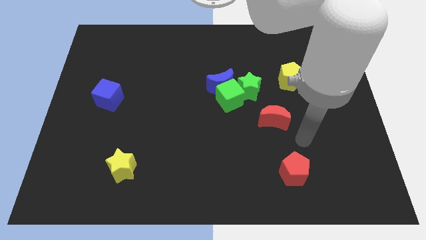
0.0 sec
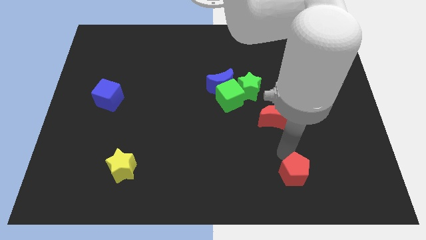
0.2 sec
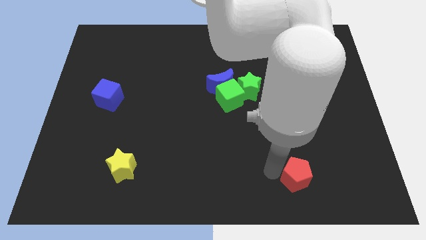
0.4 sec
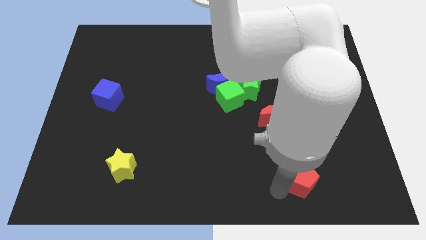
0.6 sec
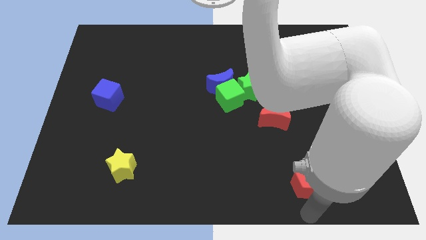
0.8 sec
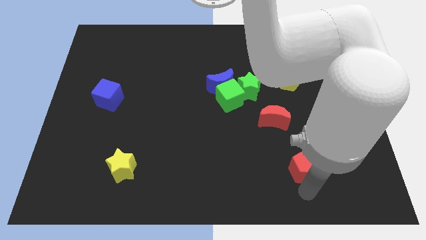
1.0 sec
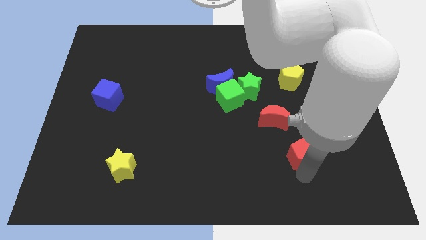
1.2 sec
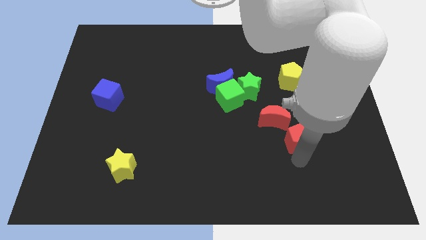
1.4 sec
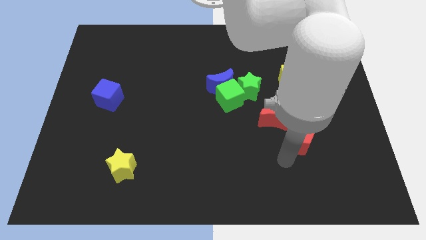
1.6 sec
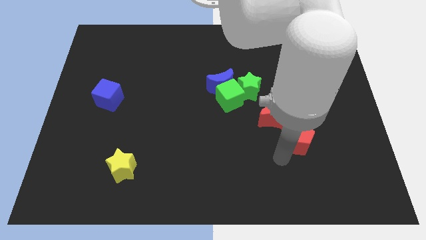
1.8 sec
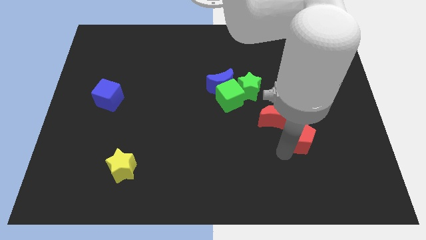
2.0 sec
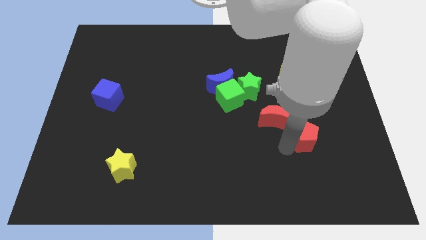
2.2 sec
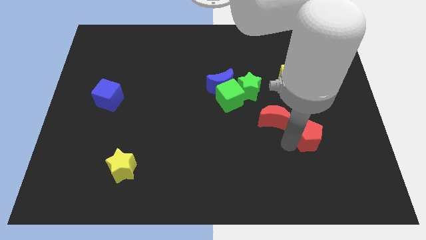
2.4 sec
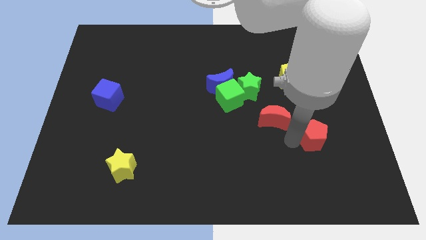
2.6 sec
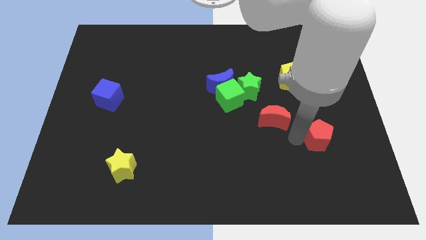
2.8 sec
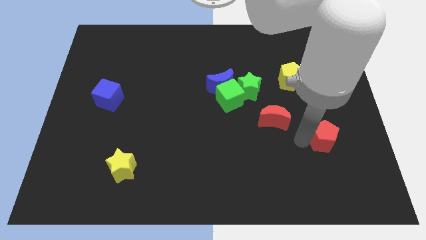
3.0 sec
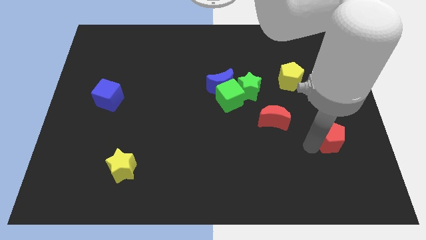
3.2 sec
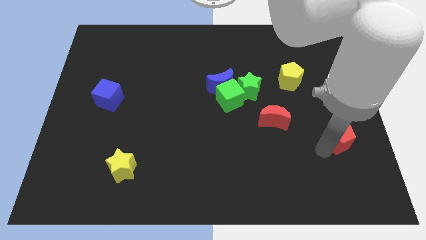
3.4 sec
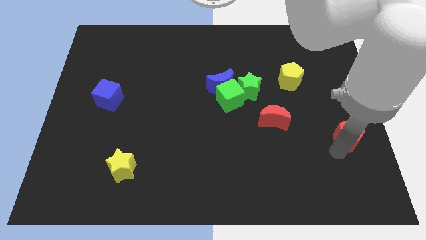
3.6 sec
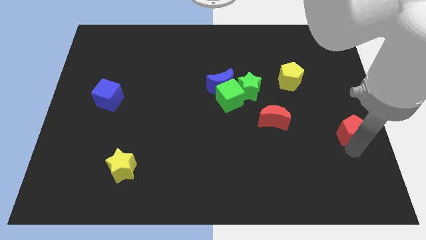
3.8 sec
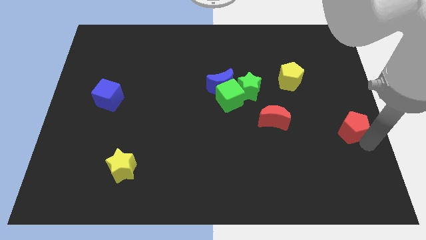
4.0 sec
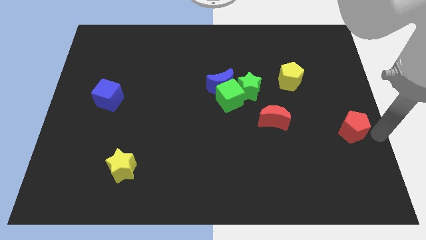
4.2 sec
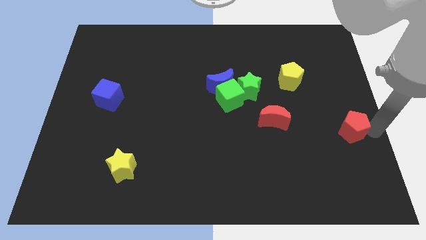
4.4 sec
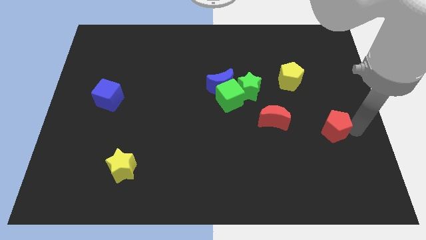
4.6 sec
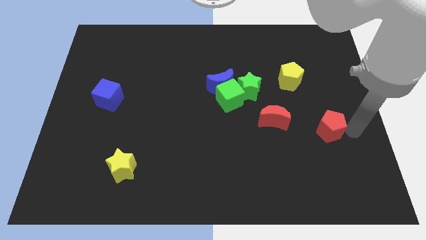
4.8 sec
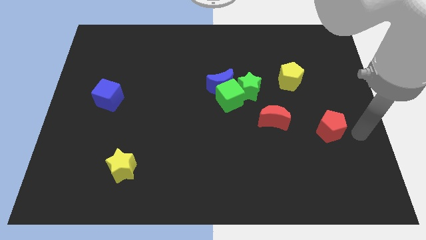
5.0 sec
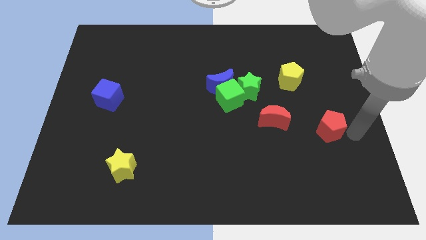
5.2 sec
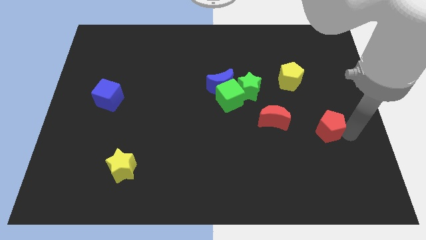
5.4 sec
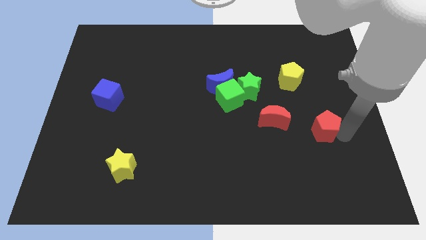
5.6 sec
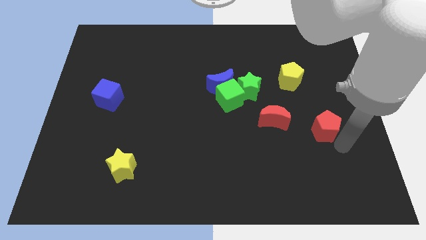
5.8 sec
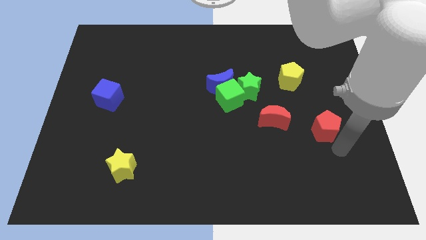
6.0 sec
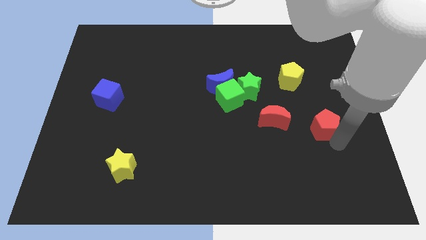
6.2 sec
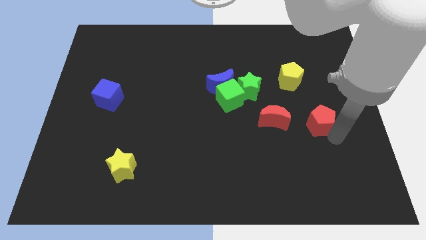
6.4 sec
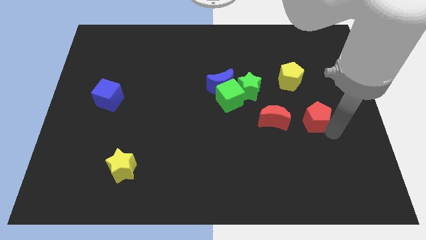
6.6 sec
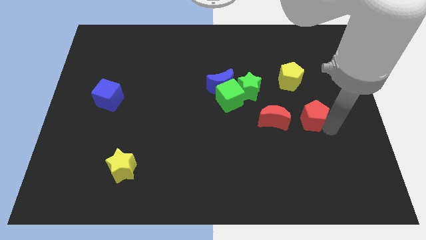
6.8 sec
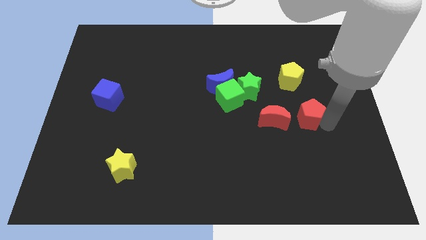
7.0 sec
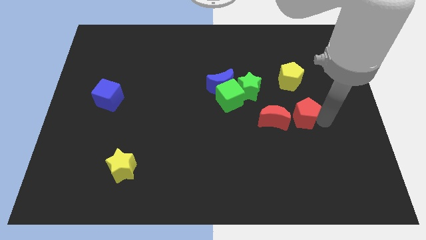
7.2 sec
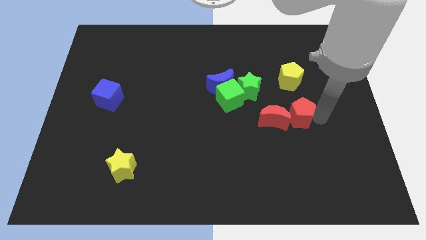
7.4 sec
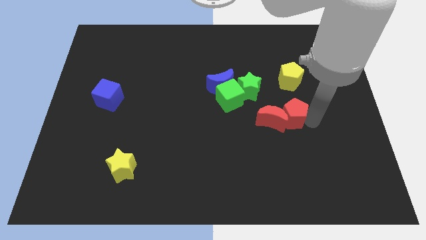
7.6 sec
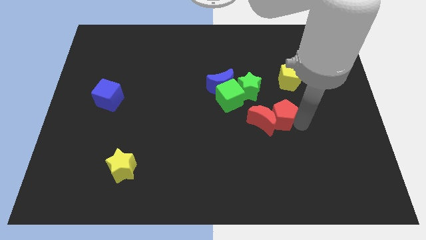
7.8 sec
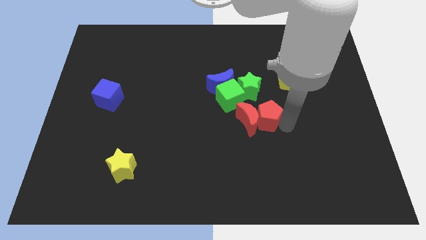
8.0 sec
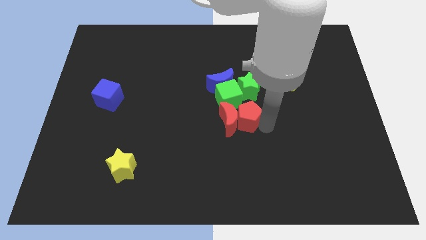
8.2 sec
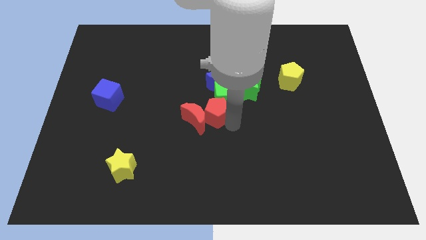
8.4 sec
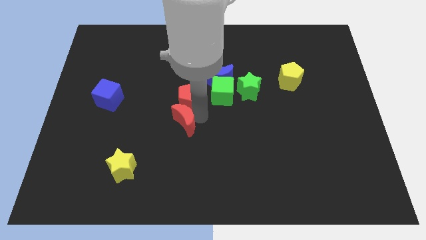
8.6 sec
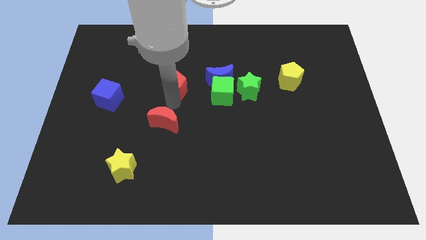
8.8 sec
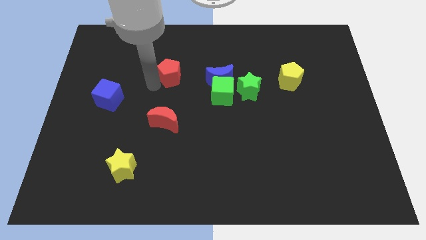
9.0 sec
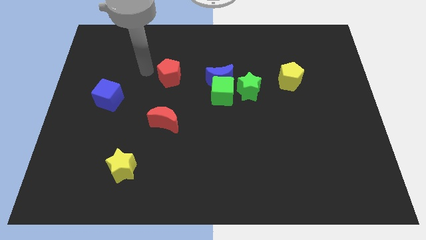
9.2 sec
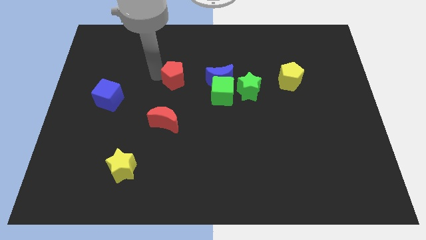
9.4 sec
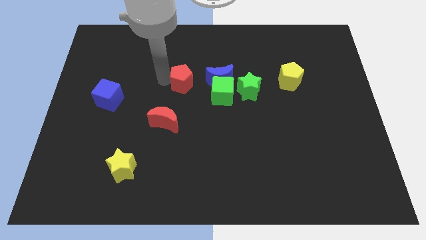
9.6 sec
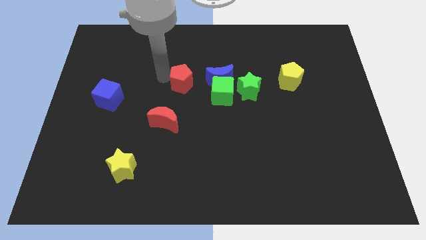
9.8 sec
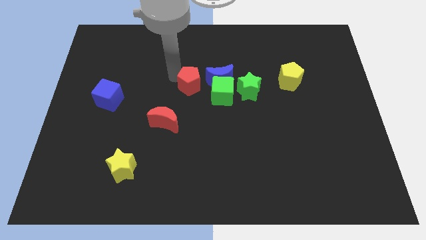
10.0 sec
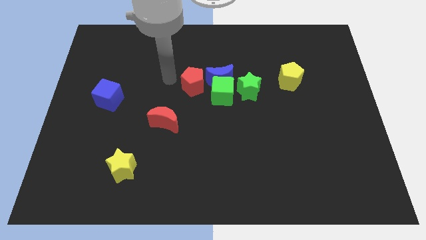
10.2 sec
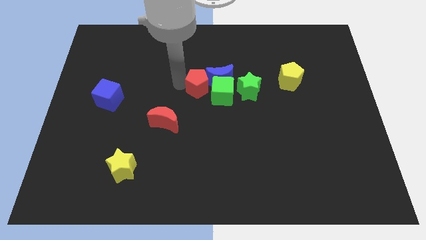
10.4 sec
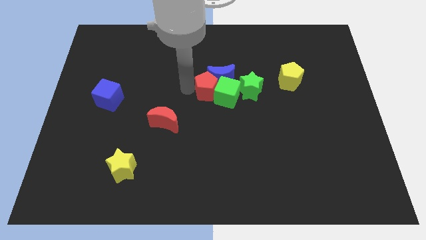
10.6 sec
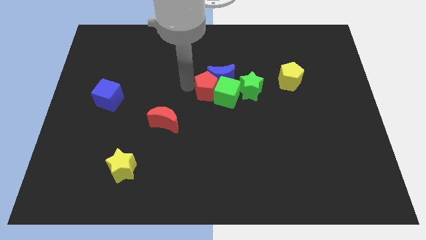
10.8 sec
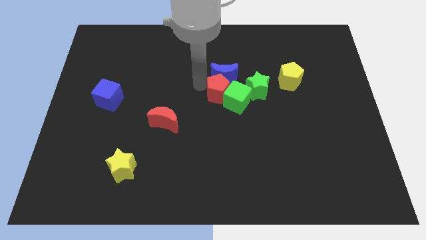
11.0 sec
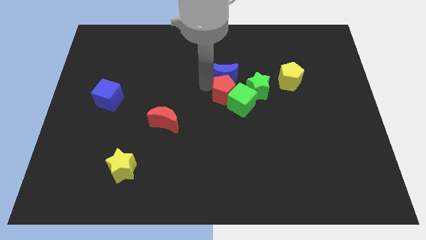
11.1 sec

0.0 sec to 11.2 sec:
slide the red pentagon to the top side of the green cube

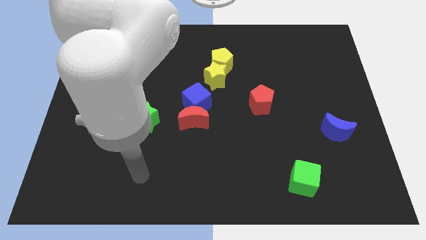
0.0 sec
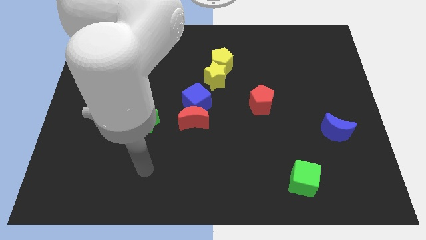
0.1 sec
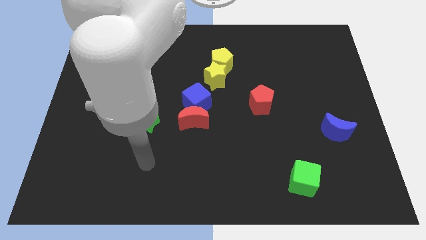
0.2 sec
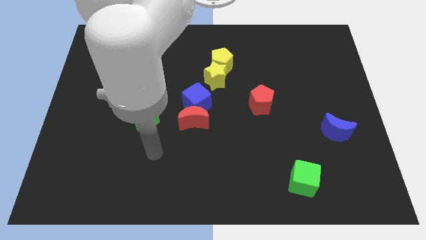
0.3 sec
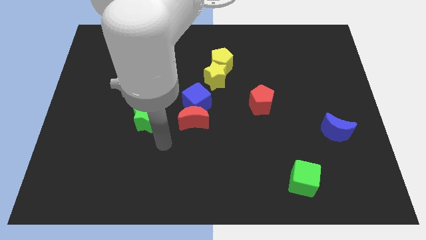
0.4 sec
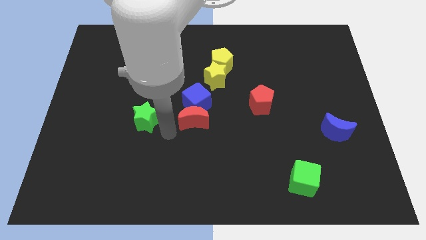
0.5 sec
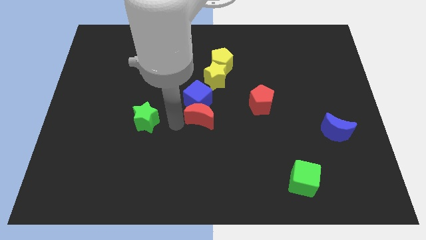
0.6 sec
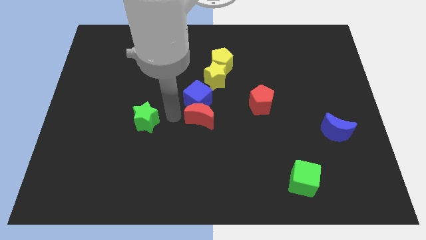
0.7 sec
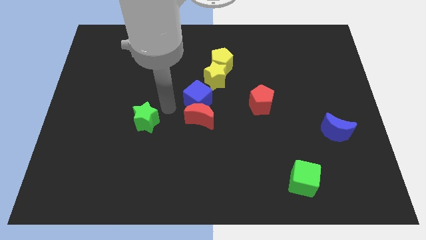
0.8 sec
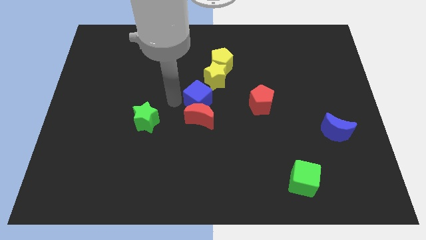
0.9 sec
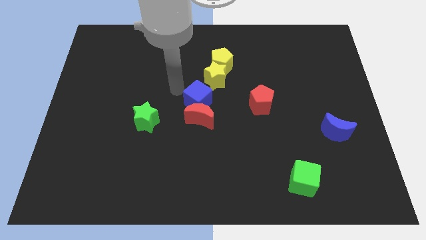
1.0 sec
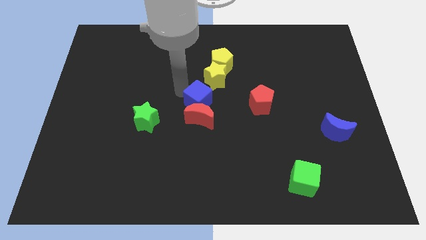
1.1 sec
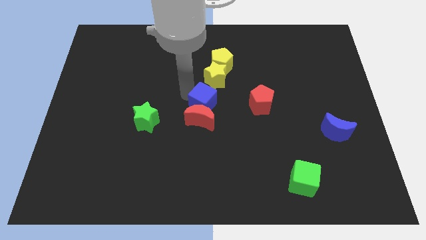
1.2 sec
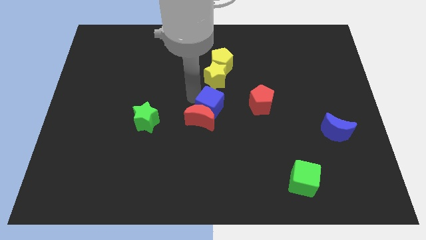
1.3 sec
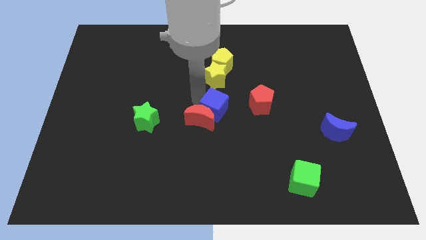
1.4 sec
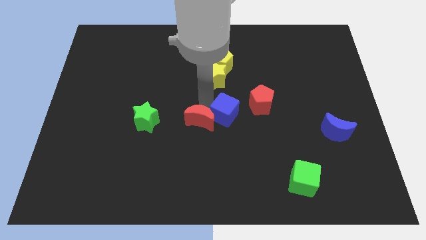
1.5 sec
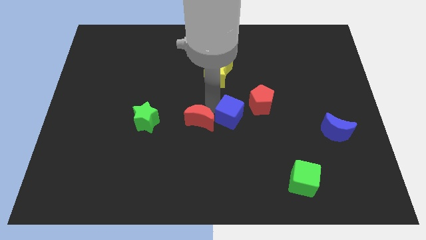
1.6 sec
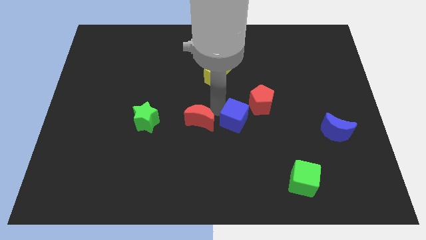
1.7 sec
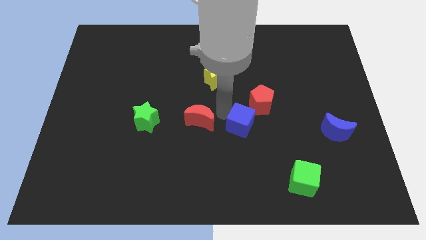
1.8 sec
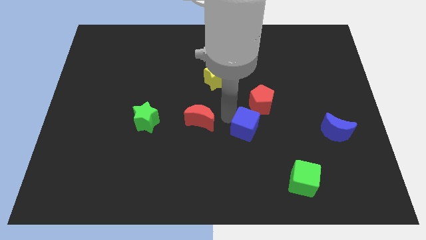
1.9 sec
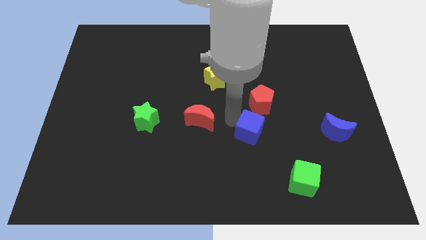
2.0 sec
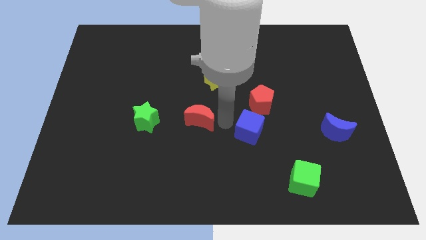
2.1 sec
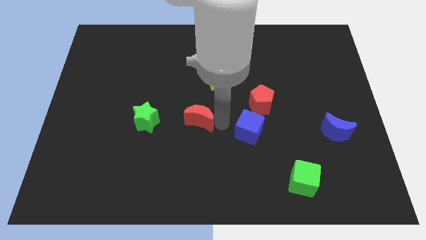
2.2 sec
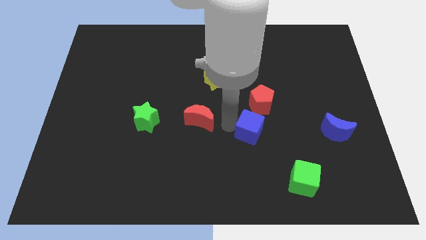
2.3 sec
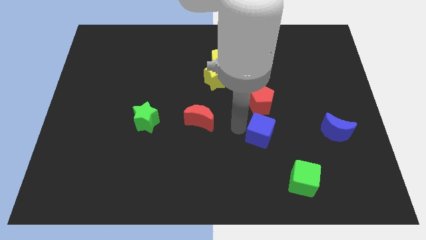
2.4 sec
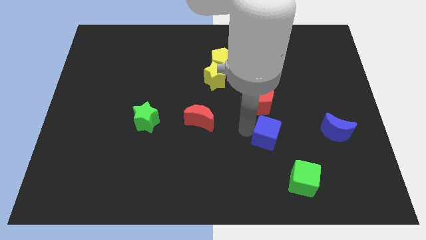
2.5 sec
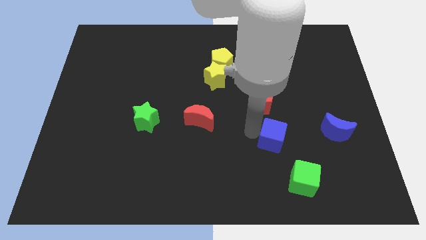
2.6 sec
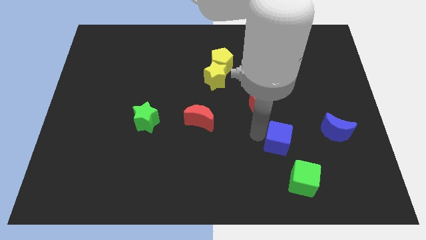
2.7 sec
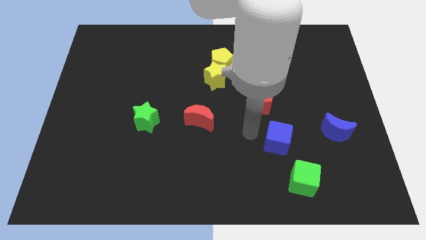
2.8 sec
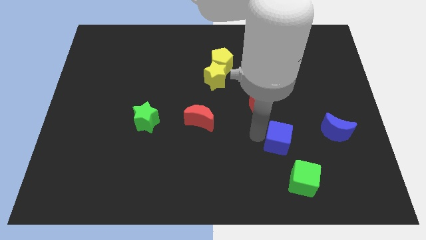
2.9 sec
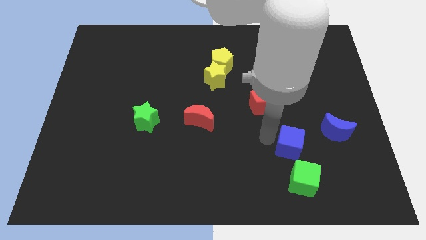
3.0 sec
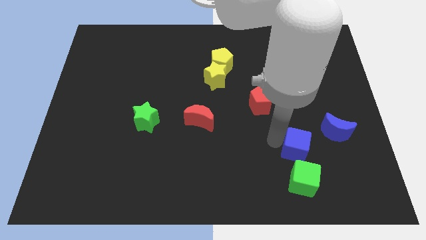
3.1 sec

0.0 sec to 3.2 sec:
put the blue cube to the bottom left side of the blue moon
